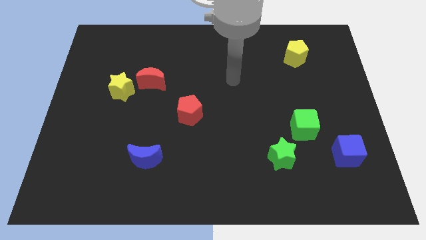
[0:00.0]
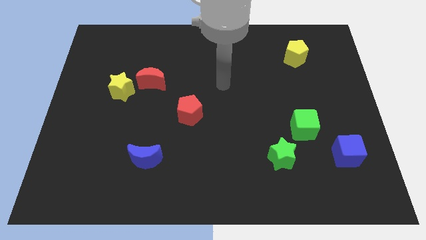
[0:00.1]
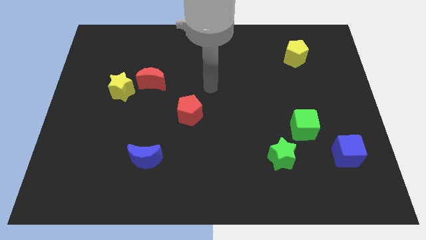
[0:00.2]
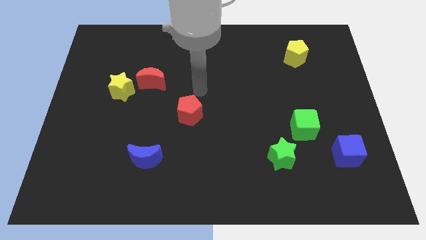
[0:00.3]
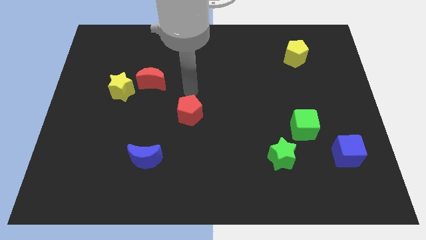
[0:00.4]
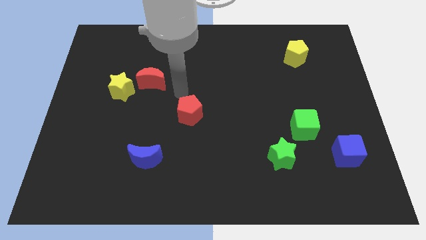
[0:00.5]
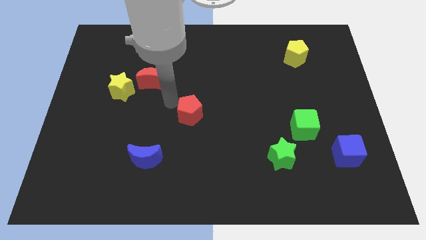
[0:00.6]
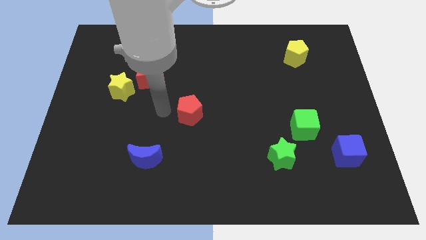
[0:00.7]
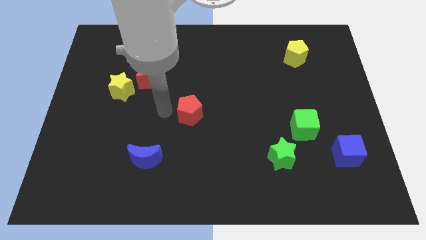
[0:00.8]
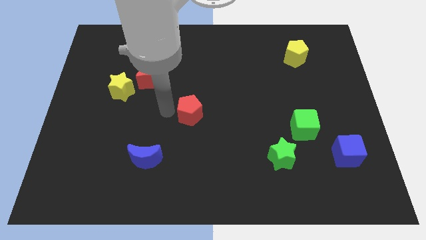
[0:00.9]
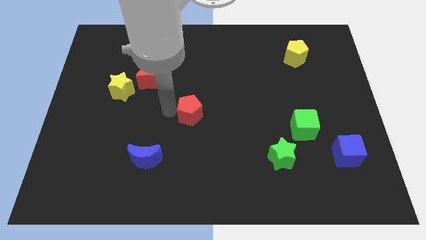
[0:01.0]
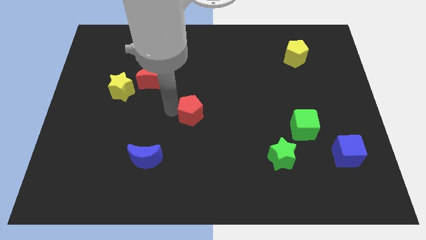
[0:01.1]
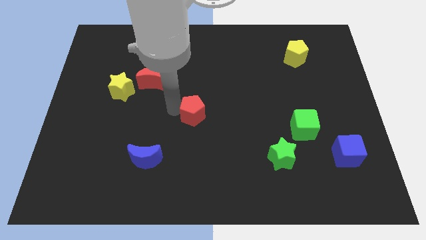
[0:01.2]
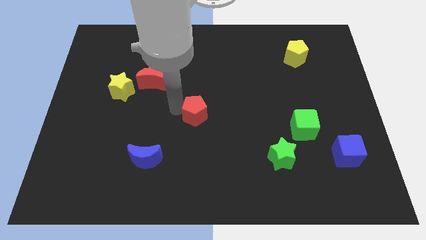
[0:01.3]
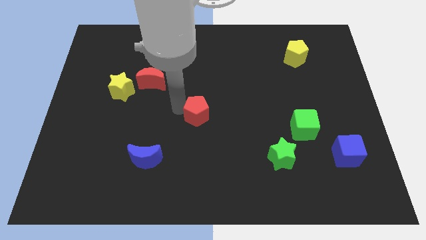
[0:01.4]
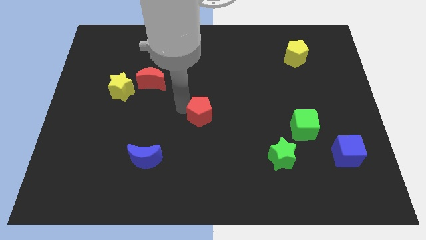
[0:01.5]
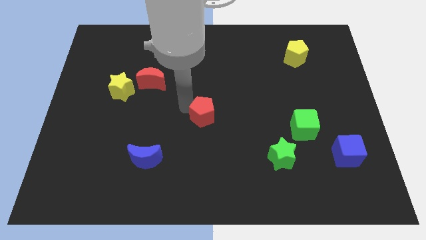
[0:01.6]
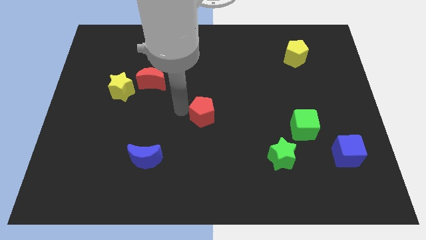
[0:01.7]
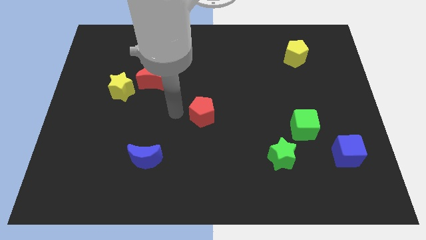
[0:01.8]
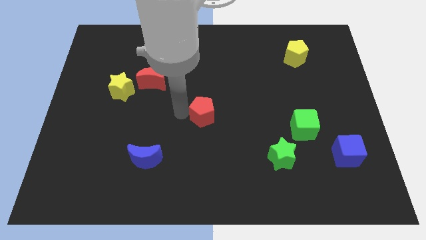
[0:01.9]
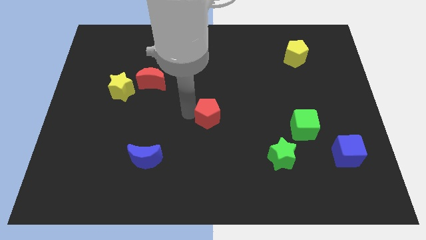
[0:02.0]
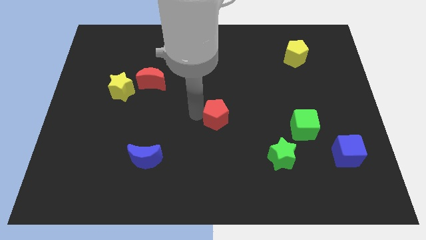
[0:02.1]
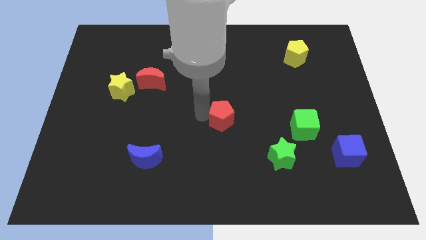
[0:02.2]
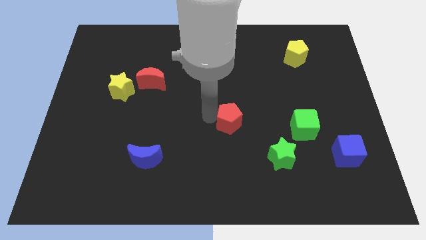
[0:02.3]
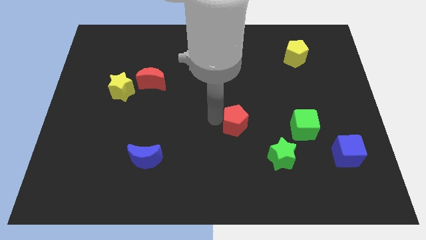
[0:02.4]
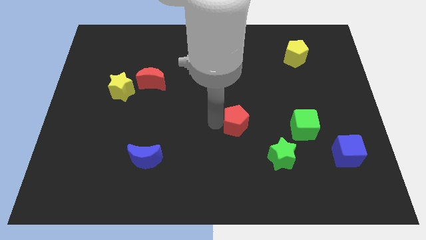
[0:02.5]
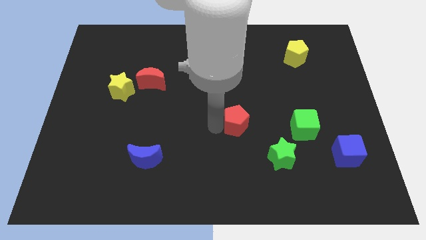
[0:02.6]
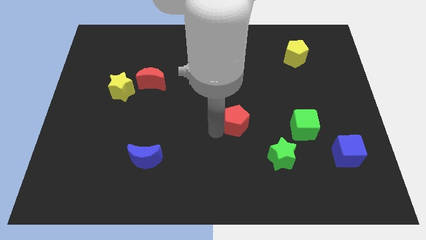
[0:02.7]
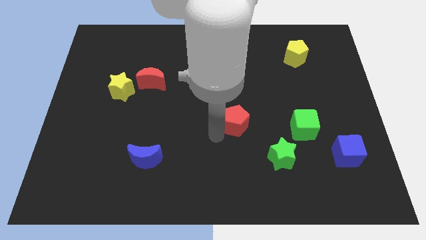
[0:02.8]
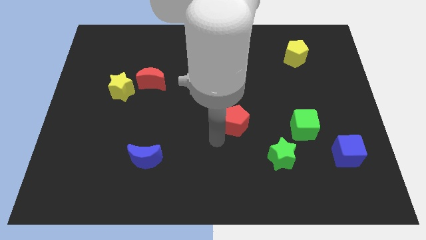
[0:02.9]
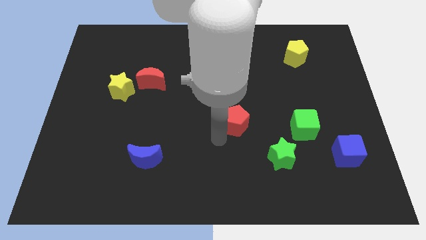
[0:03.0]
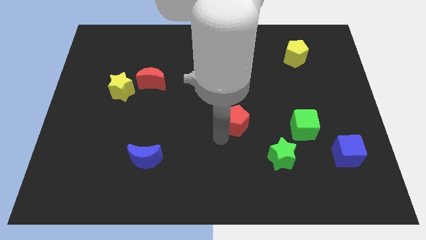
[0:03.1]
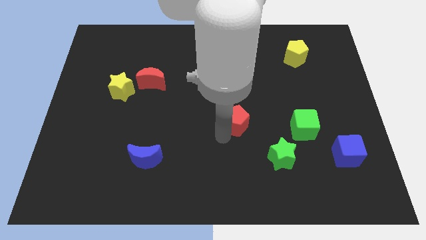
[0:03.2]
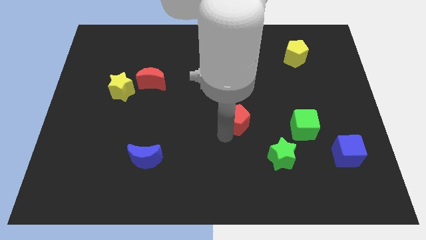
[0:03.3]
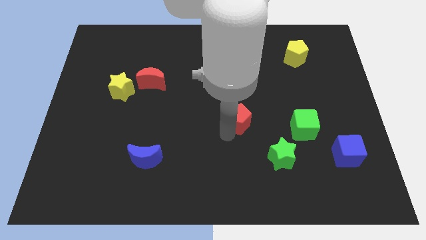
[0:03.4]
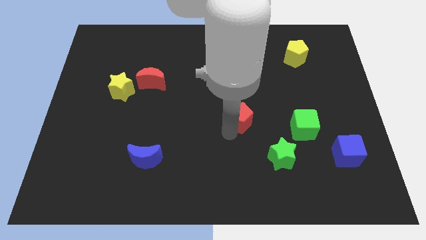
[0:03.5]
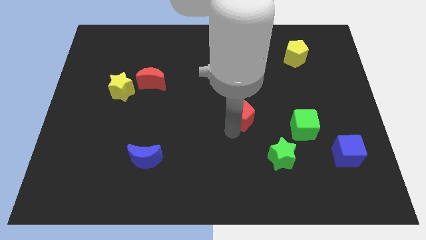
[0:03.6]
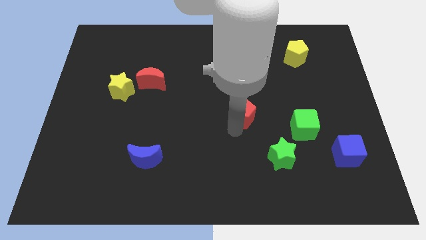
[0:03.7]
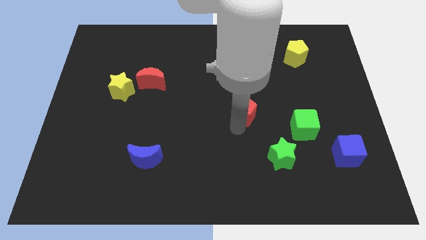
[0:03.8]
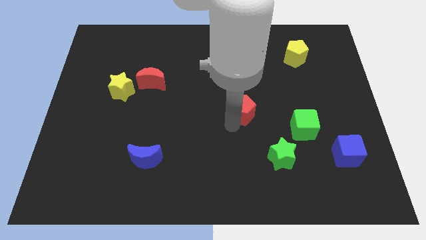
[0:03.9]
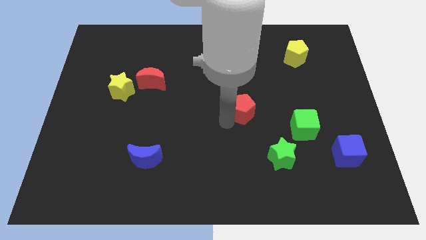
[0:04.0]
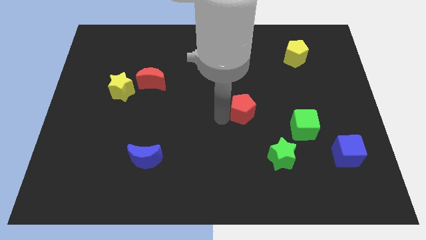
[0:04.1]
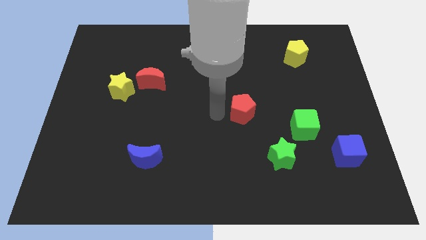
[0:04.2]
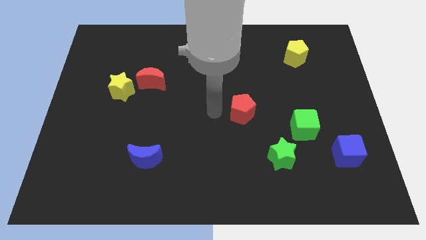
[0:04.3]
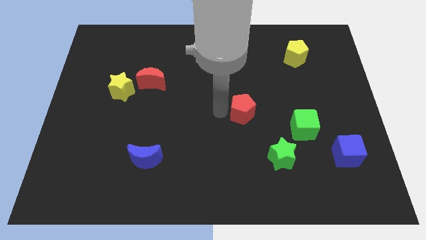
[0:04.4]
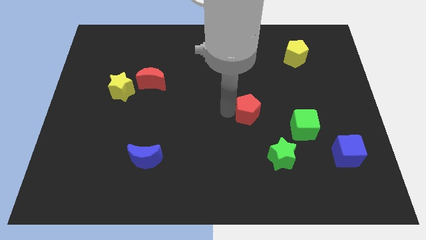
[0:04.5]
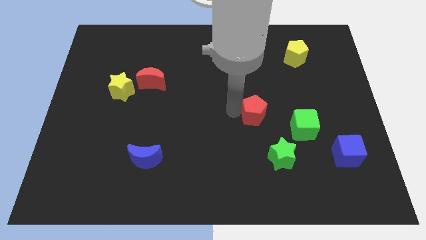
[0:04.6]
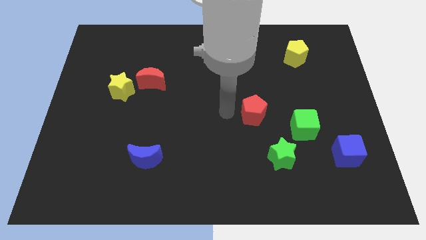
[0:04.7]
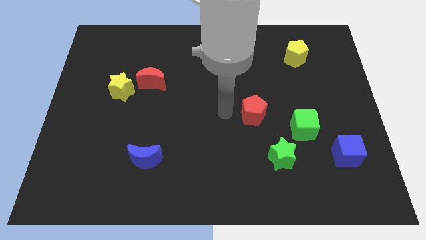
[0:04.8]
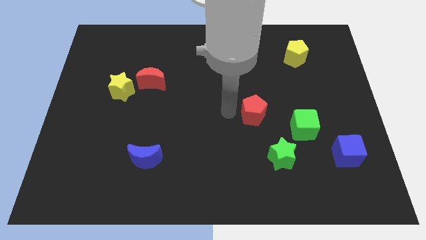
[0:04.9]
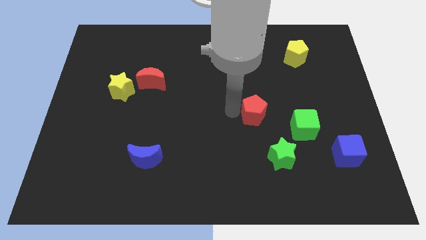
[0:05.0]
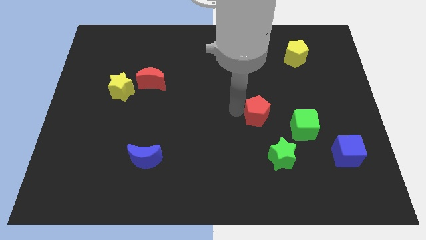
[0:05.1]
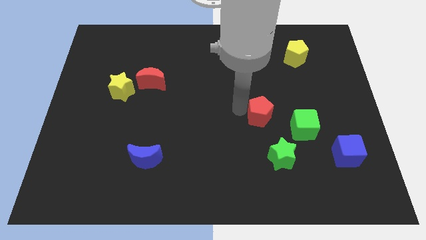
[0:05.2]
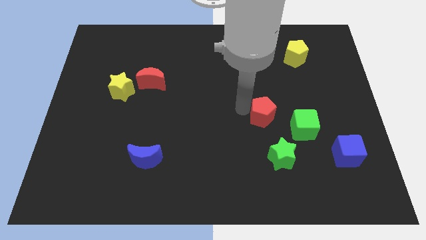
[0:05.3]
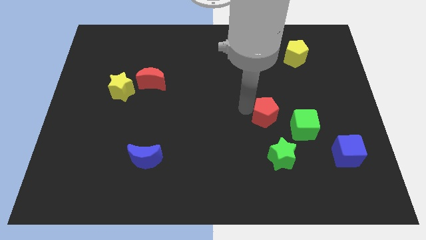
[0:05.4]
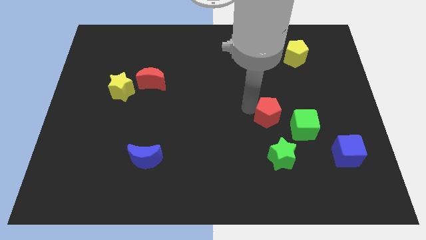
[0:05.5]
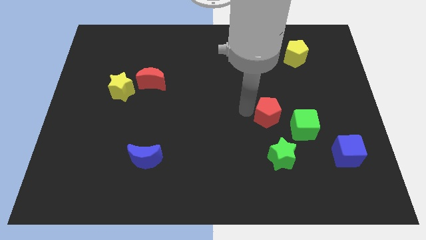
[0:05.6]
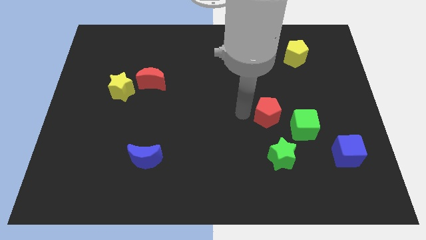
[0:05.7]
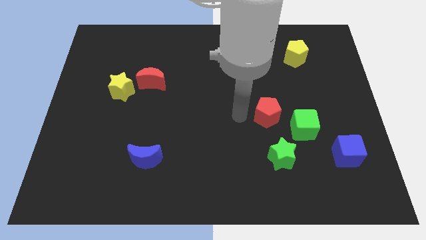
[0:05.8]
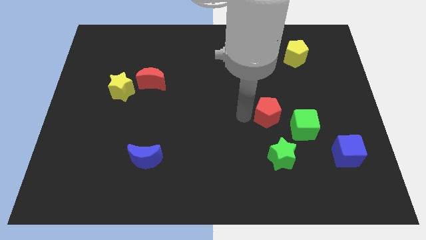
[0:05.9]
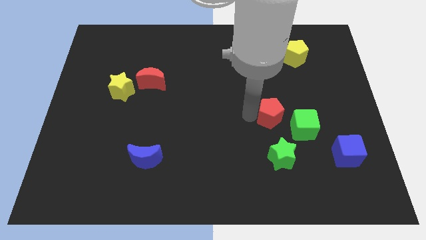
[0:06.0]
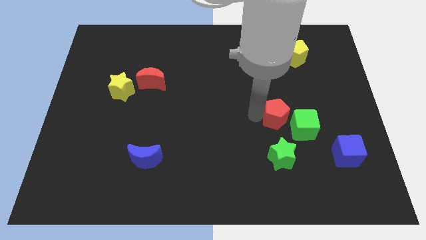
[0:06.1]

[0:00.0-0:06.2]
move the red pentagon right

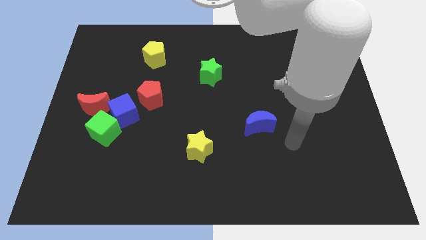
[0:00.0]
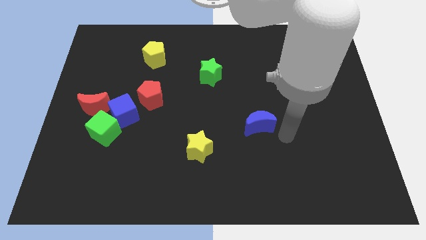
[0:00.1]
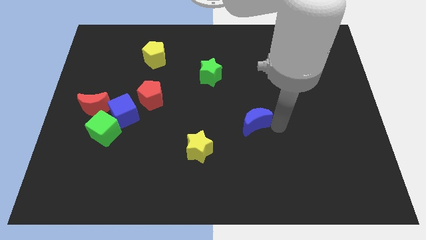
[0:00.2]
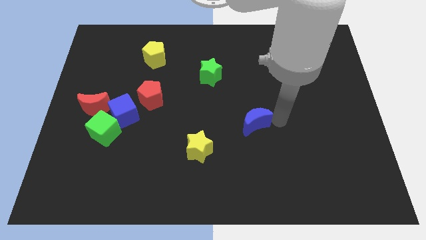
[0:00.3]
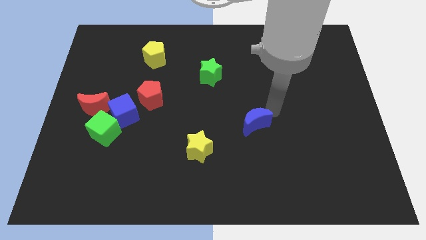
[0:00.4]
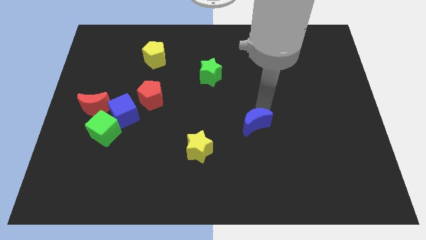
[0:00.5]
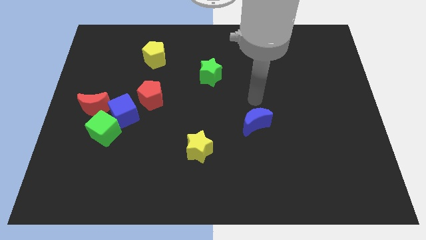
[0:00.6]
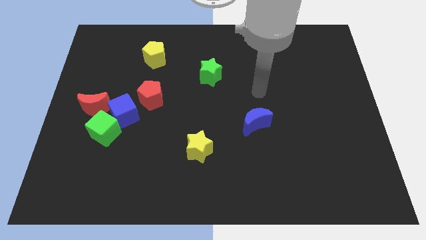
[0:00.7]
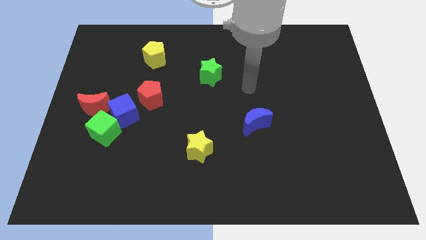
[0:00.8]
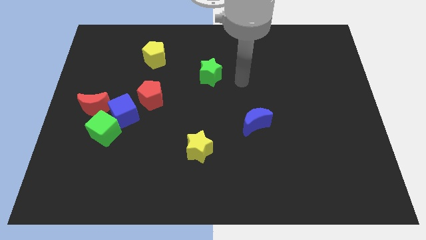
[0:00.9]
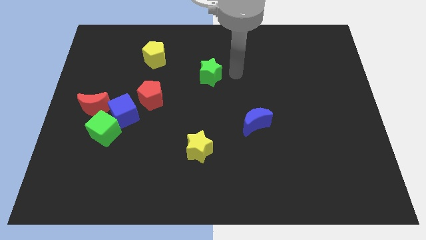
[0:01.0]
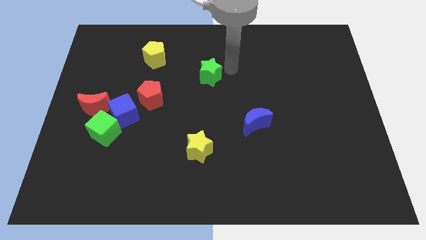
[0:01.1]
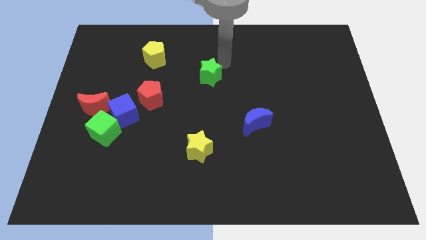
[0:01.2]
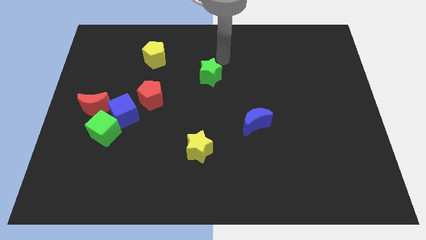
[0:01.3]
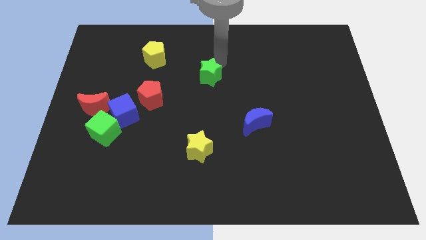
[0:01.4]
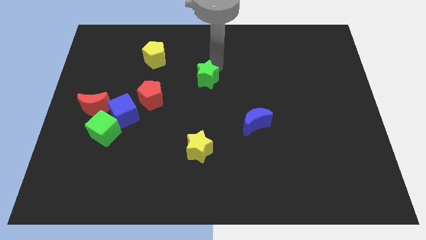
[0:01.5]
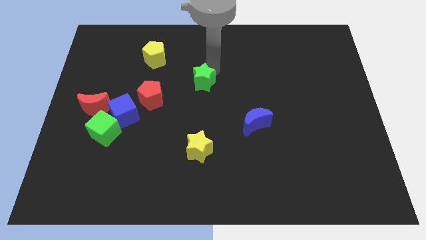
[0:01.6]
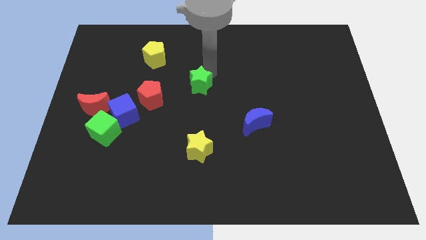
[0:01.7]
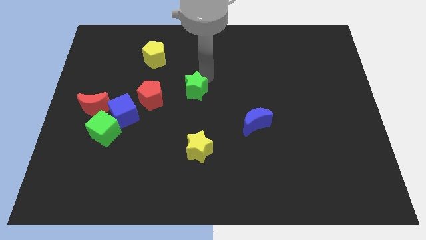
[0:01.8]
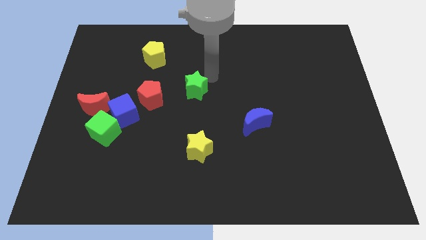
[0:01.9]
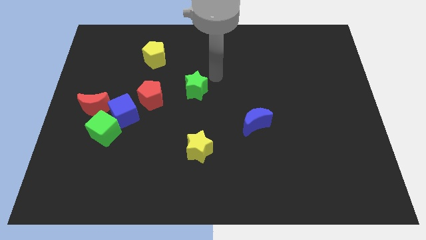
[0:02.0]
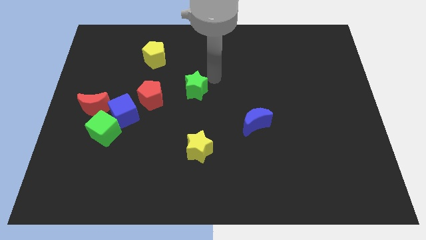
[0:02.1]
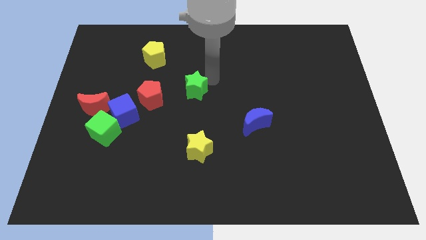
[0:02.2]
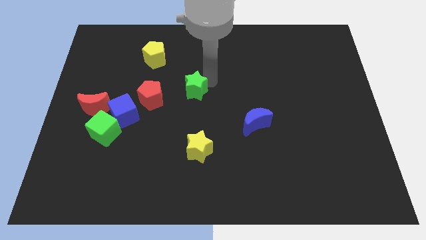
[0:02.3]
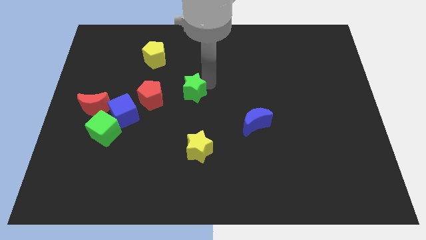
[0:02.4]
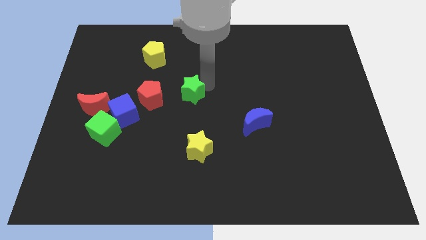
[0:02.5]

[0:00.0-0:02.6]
slightly move the green star down and left
